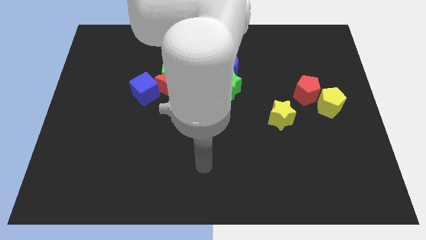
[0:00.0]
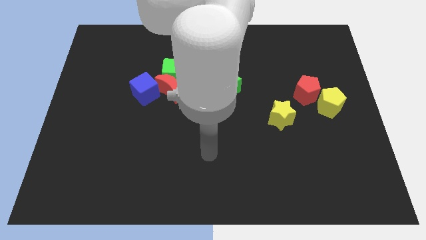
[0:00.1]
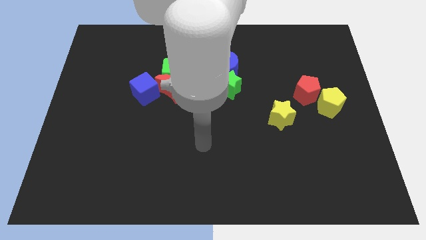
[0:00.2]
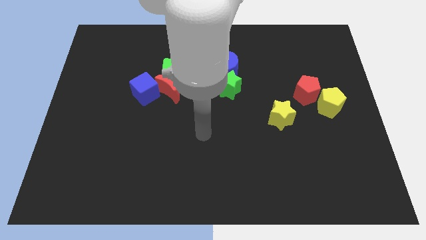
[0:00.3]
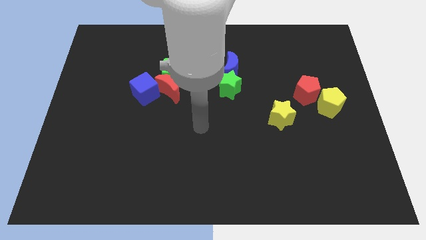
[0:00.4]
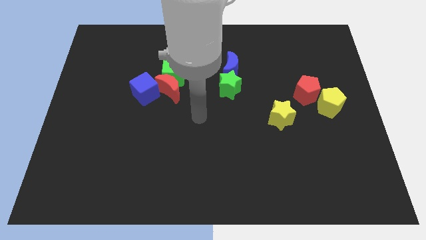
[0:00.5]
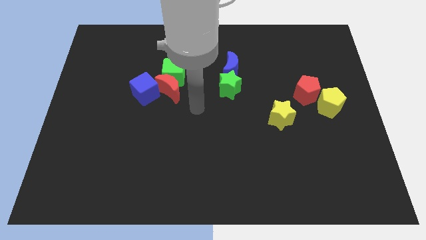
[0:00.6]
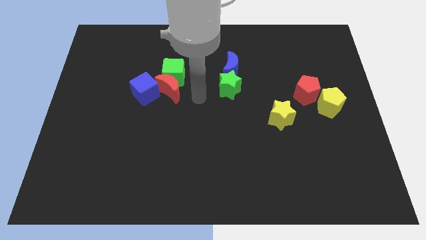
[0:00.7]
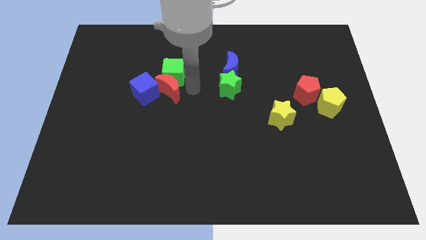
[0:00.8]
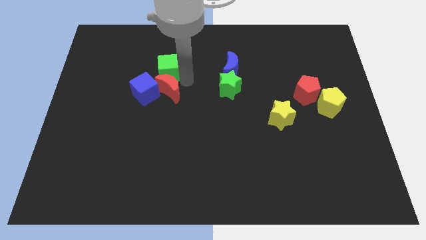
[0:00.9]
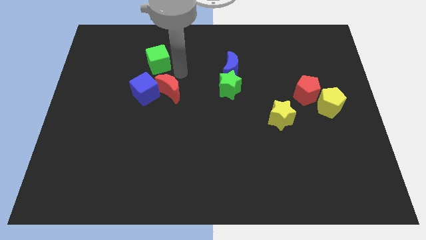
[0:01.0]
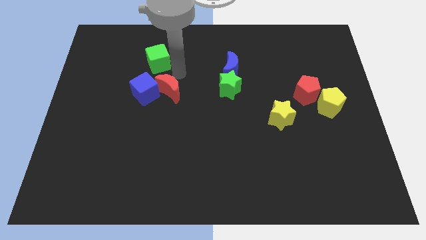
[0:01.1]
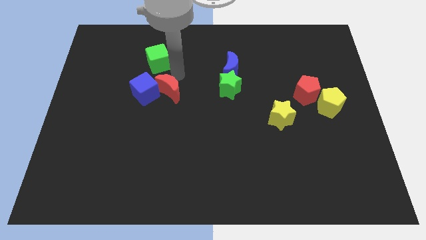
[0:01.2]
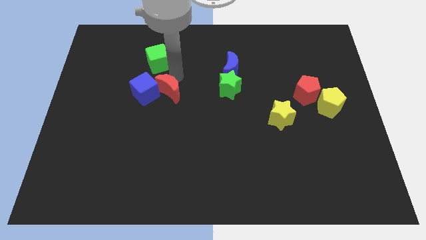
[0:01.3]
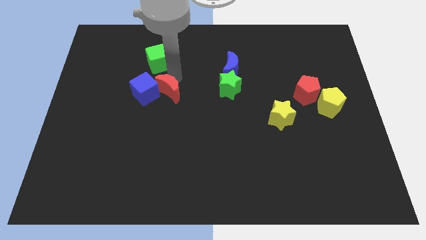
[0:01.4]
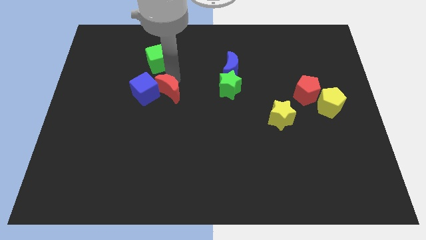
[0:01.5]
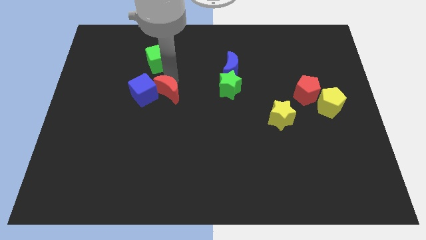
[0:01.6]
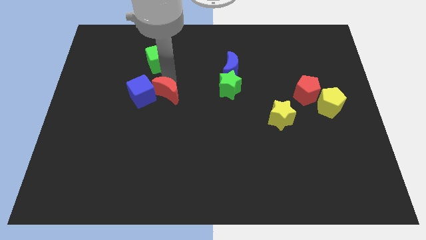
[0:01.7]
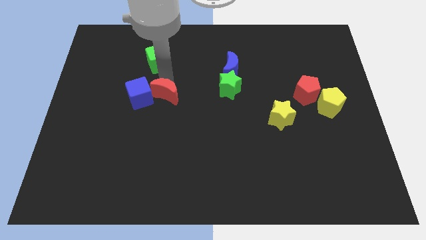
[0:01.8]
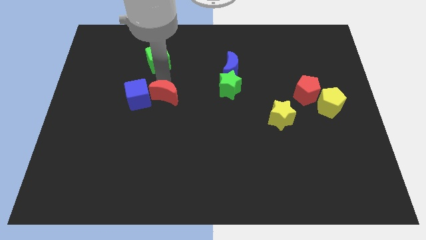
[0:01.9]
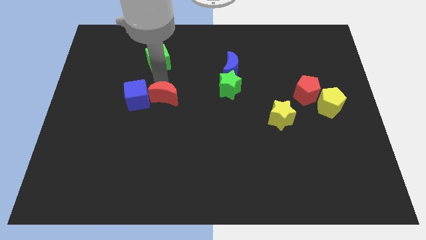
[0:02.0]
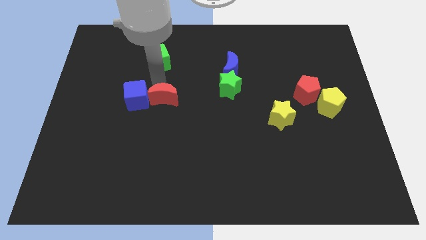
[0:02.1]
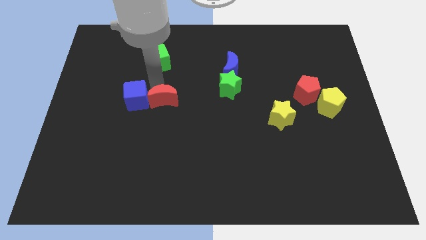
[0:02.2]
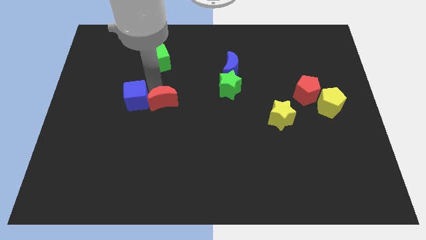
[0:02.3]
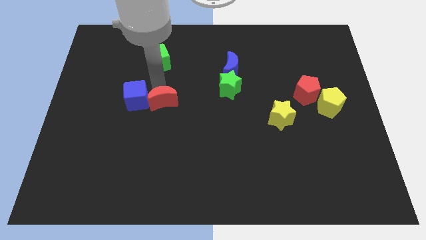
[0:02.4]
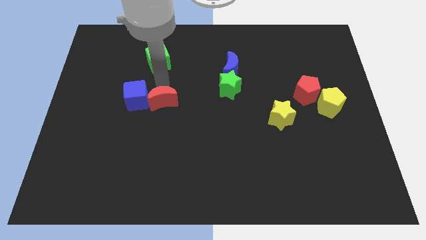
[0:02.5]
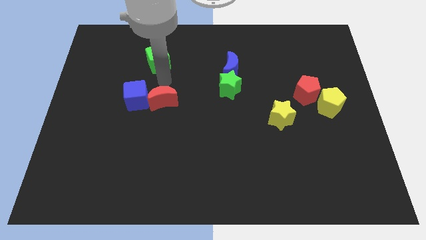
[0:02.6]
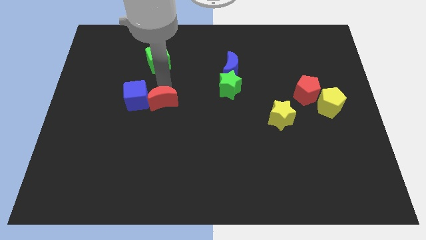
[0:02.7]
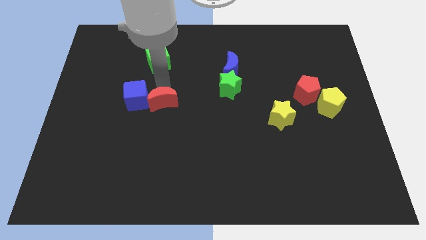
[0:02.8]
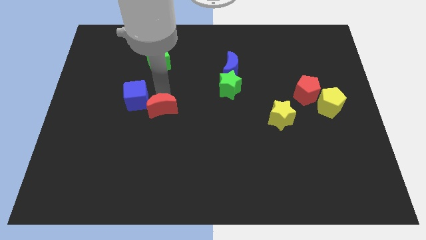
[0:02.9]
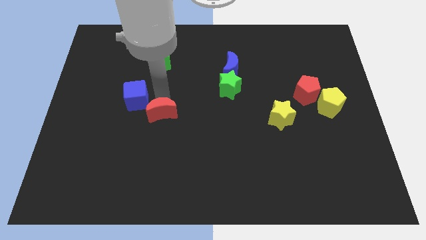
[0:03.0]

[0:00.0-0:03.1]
slightly slide the red moon downwards

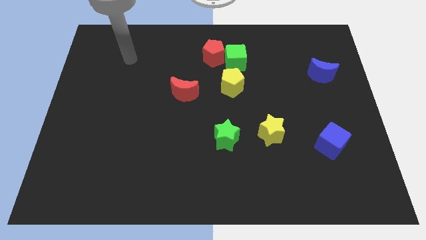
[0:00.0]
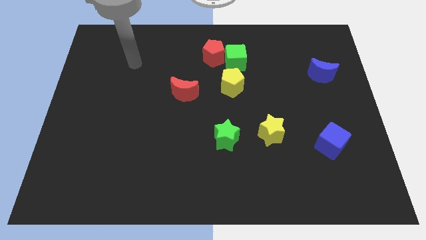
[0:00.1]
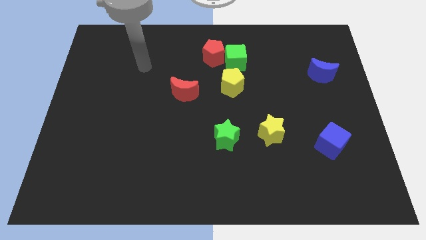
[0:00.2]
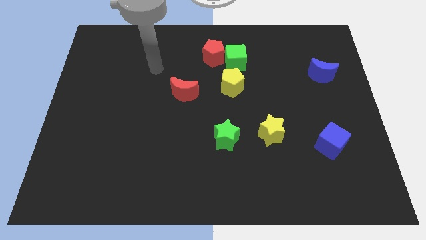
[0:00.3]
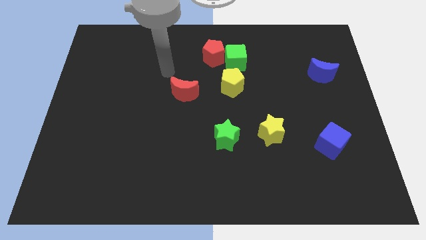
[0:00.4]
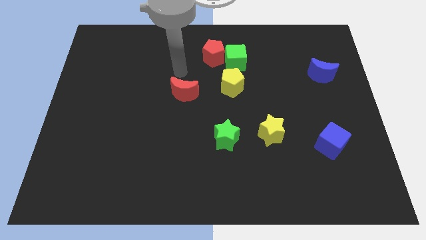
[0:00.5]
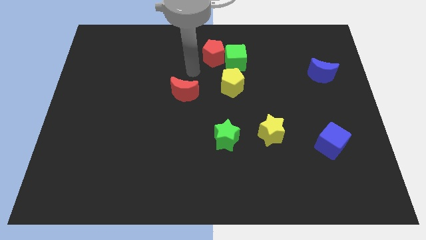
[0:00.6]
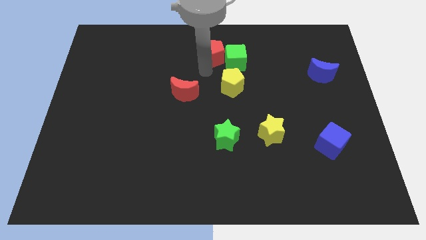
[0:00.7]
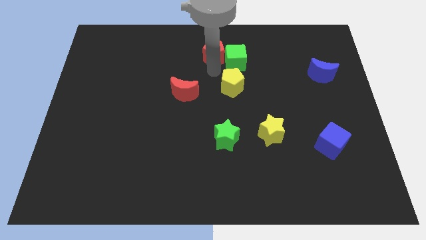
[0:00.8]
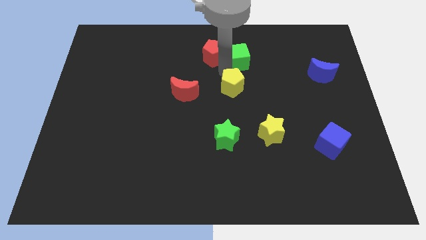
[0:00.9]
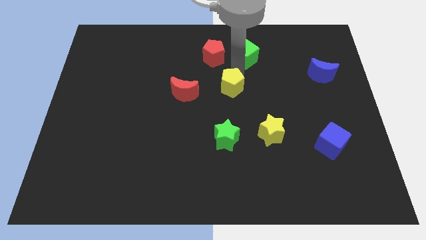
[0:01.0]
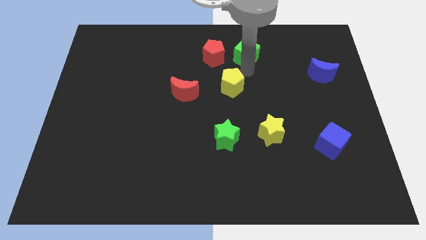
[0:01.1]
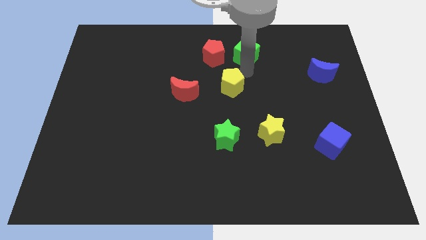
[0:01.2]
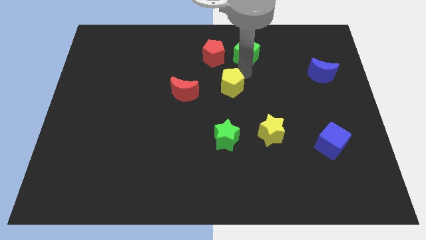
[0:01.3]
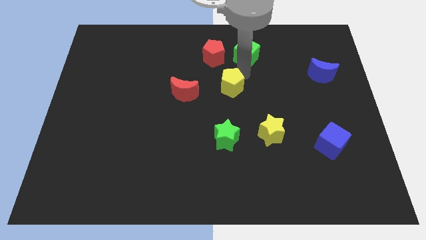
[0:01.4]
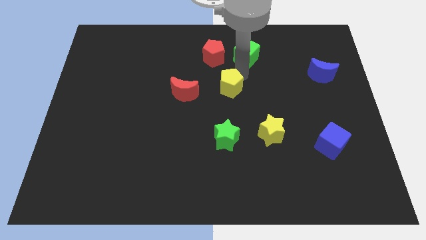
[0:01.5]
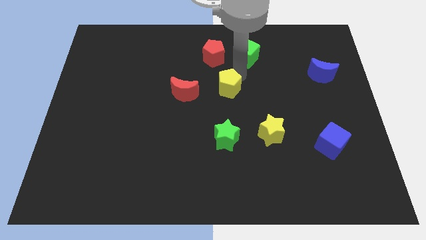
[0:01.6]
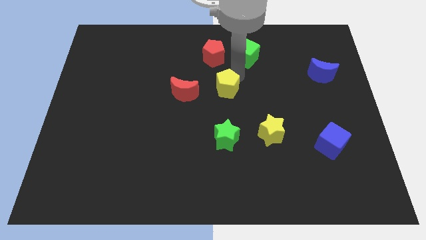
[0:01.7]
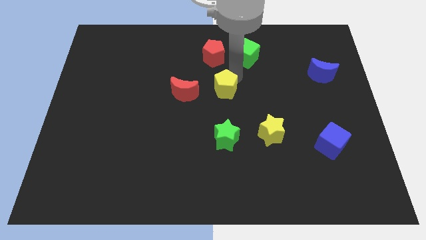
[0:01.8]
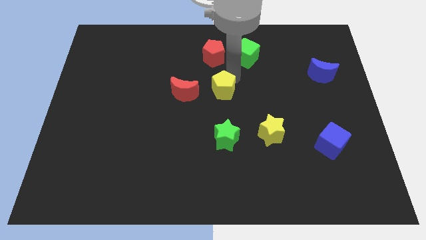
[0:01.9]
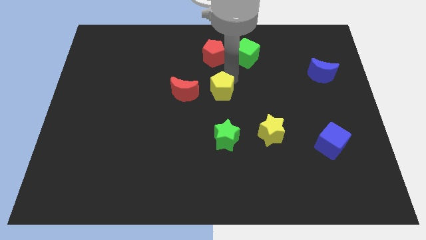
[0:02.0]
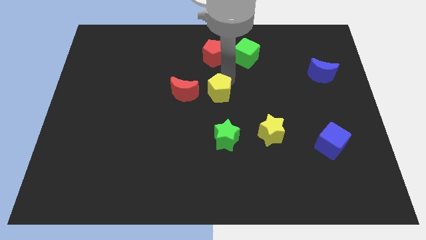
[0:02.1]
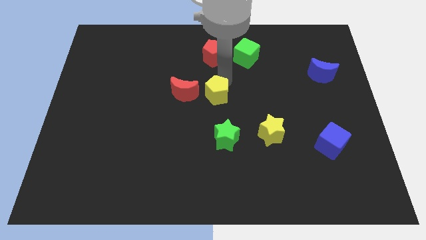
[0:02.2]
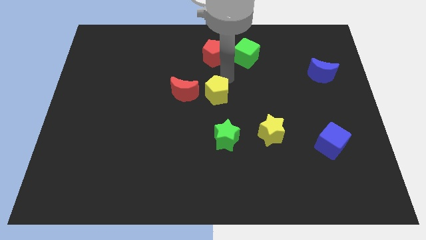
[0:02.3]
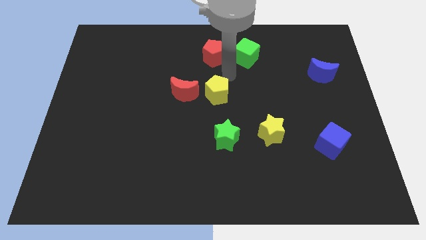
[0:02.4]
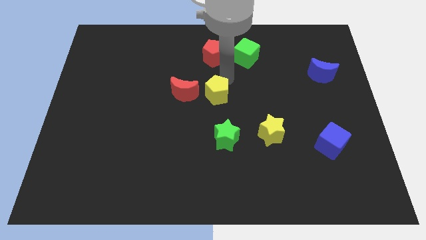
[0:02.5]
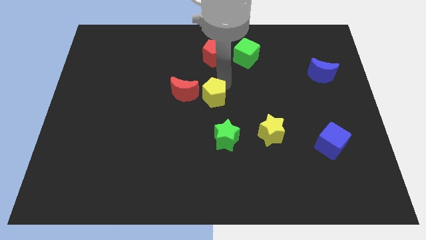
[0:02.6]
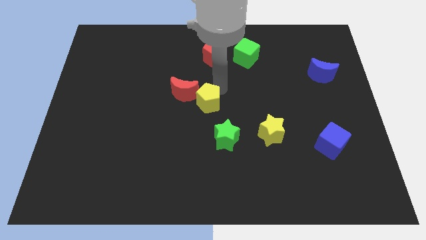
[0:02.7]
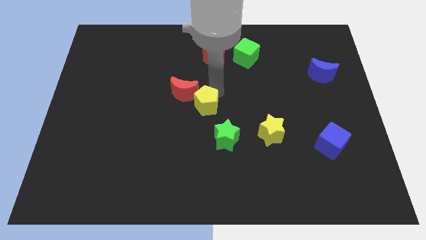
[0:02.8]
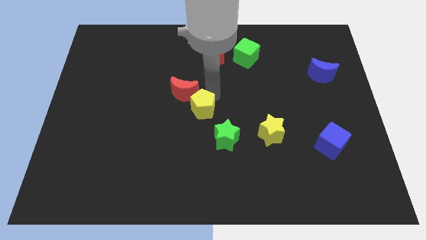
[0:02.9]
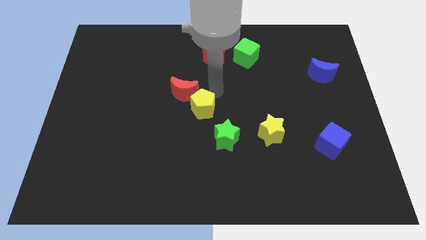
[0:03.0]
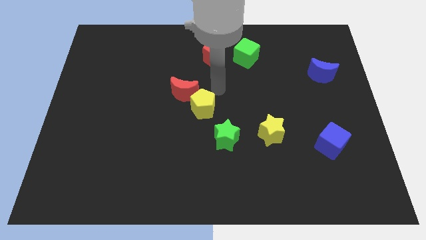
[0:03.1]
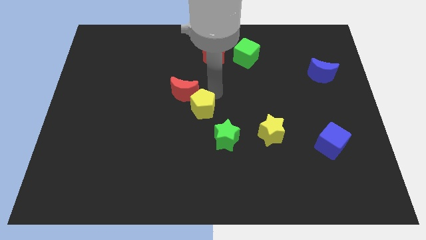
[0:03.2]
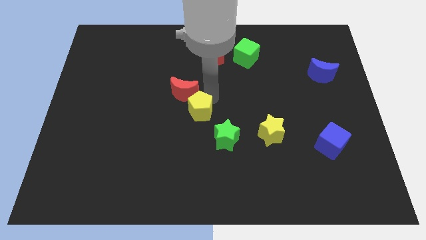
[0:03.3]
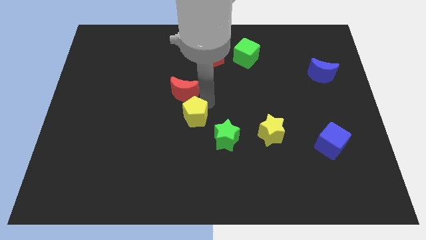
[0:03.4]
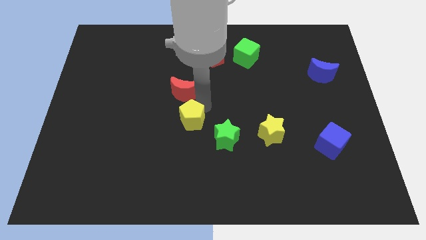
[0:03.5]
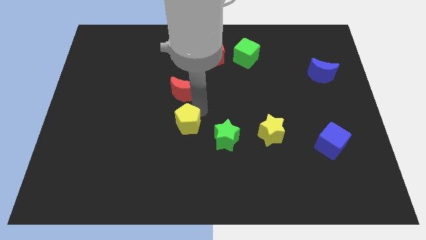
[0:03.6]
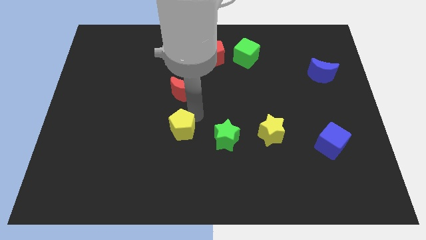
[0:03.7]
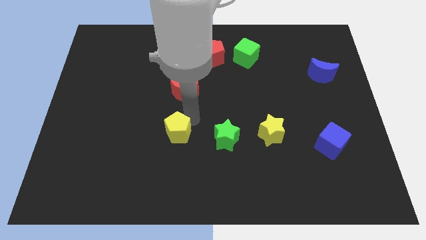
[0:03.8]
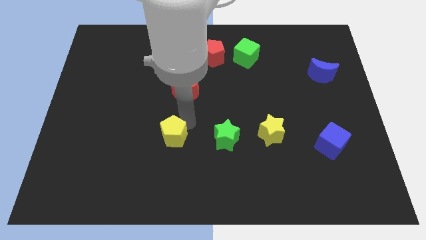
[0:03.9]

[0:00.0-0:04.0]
move the yellow pentagon diagonally downwards and to the left

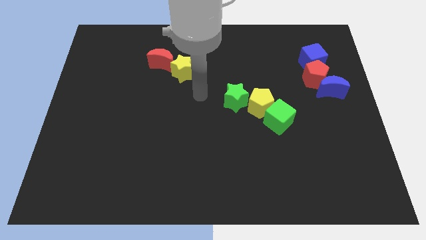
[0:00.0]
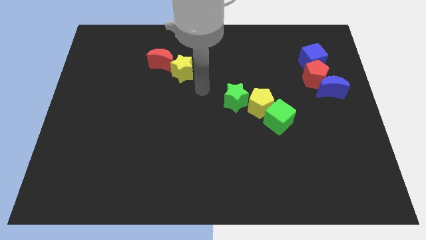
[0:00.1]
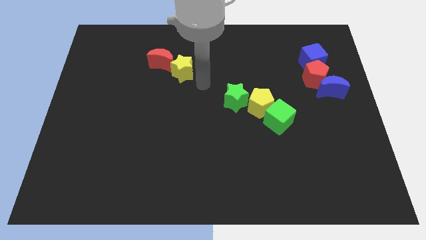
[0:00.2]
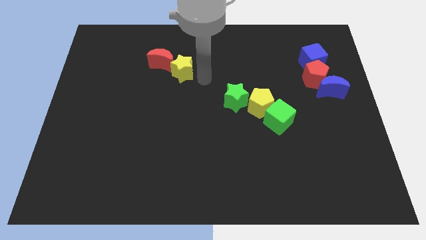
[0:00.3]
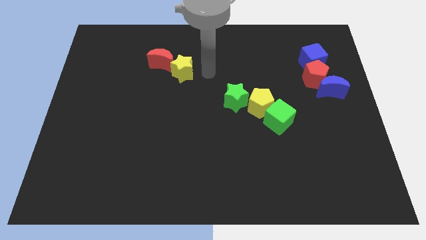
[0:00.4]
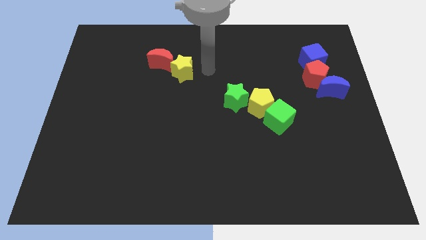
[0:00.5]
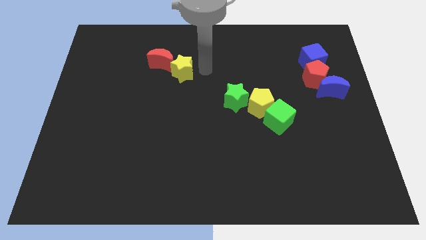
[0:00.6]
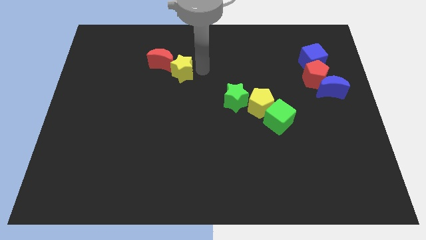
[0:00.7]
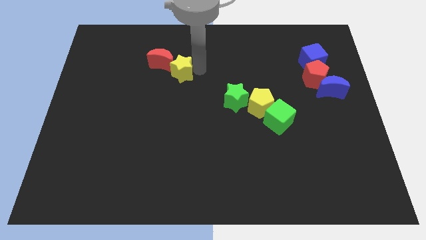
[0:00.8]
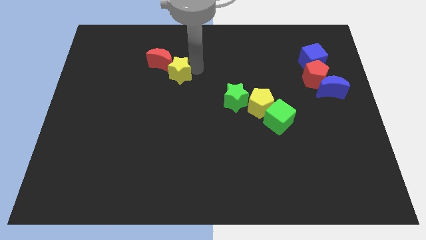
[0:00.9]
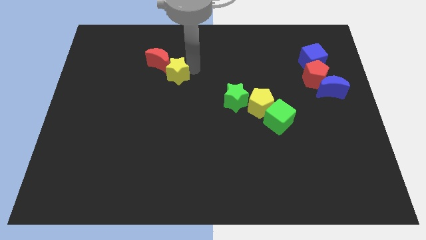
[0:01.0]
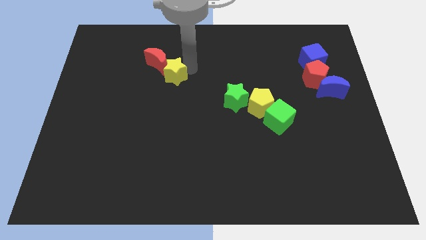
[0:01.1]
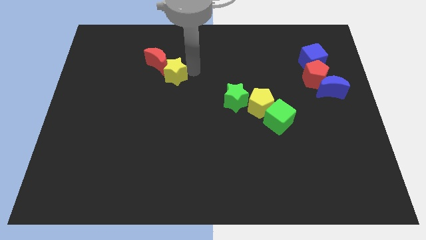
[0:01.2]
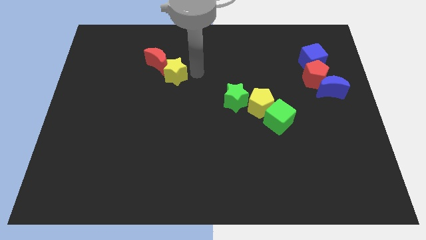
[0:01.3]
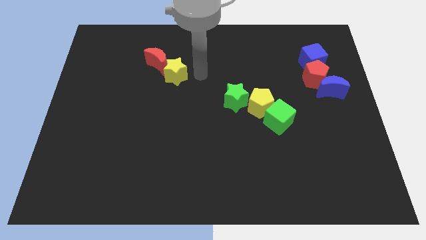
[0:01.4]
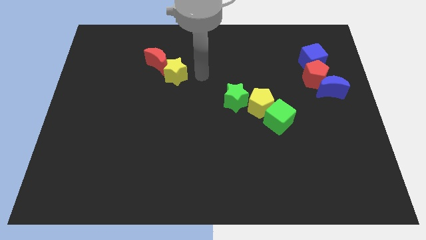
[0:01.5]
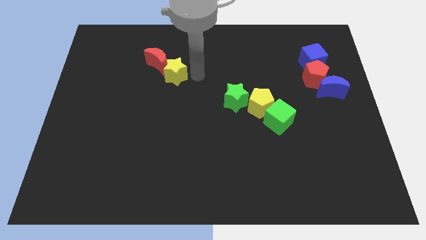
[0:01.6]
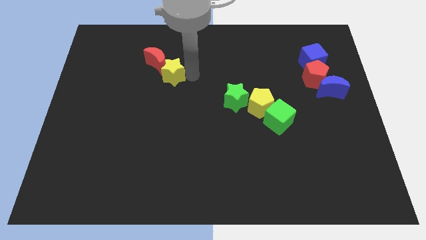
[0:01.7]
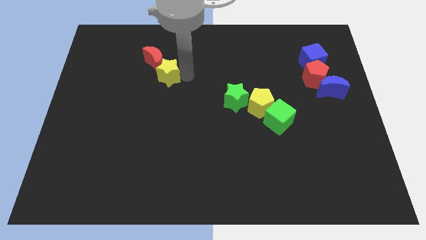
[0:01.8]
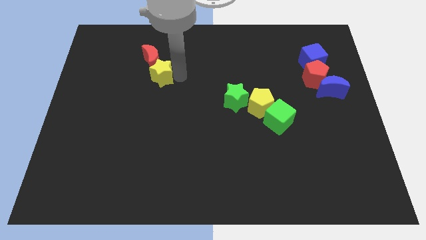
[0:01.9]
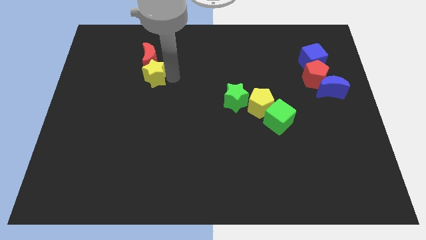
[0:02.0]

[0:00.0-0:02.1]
push the yellow star somewhat left
